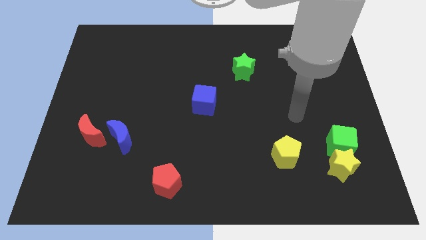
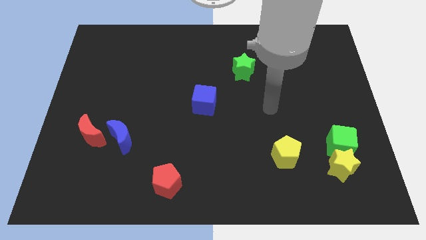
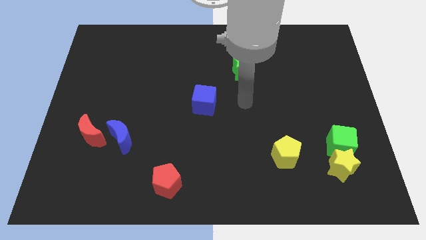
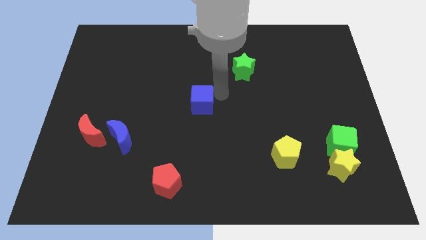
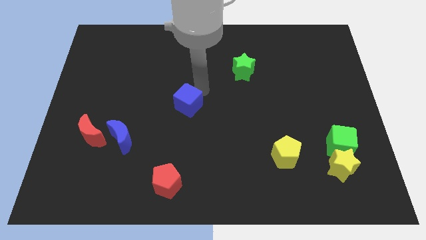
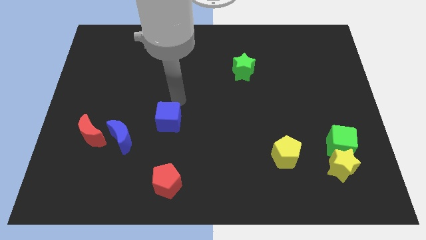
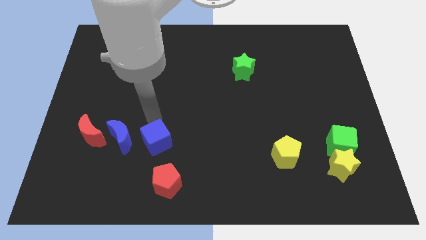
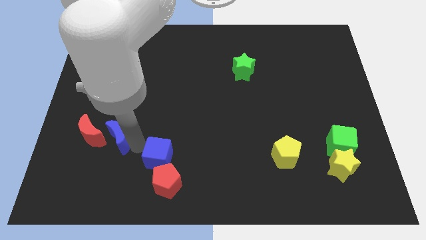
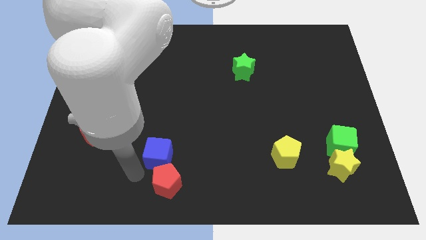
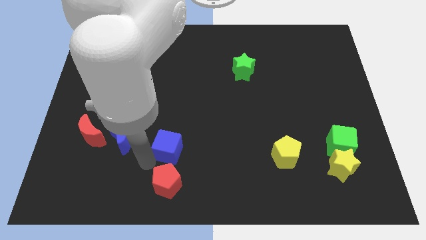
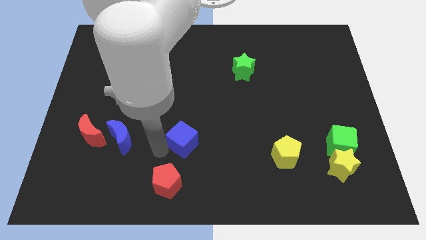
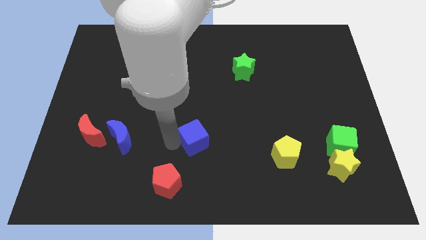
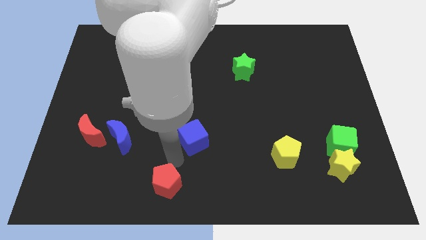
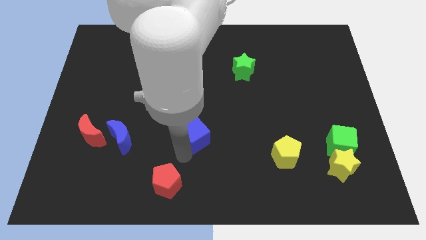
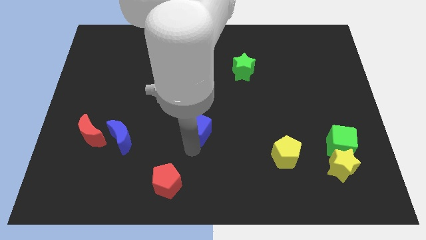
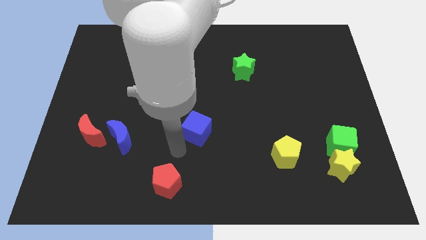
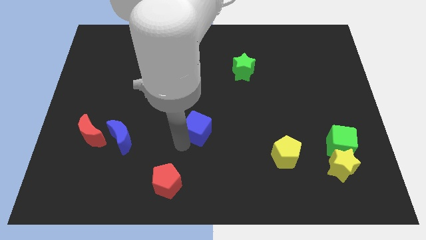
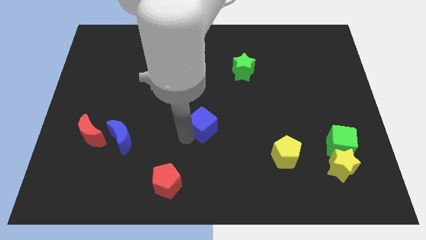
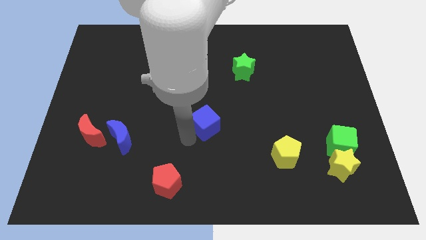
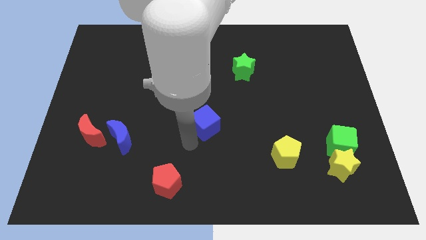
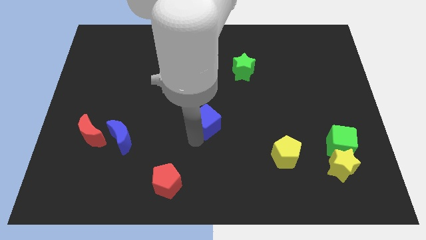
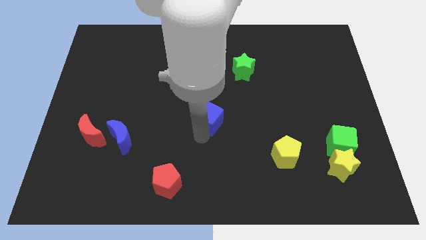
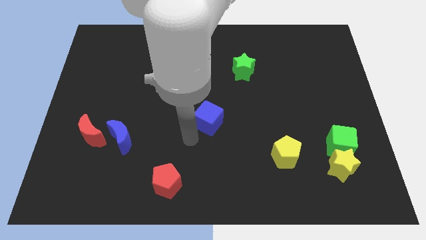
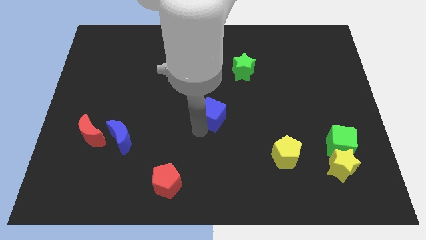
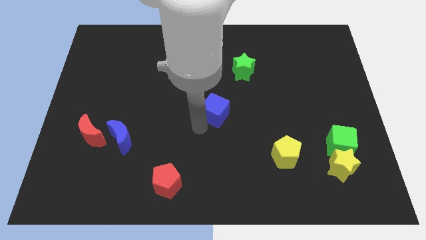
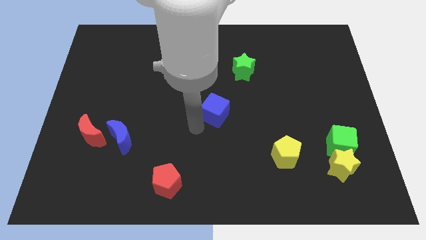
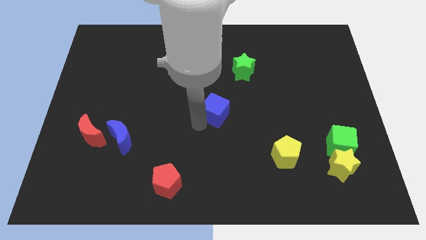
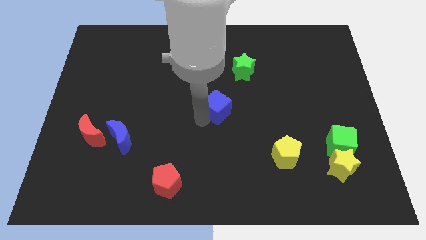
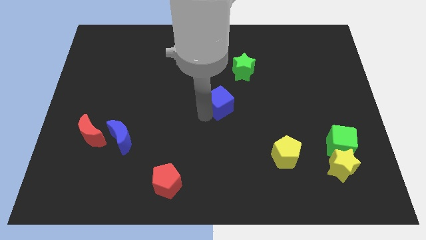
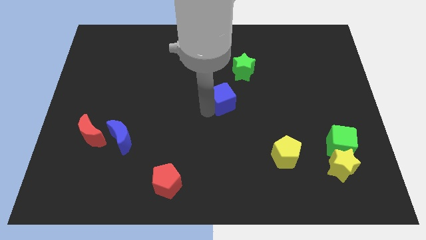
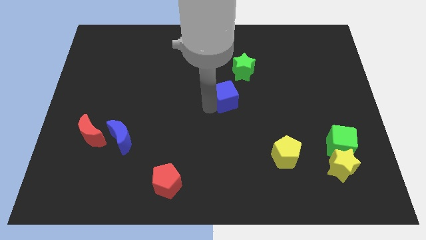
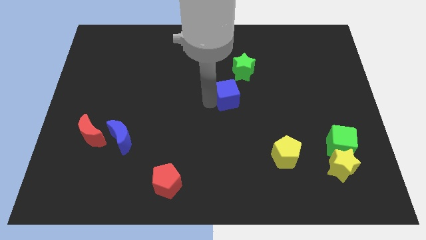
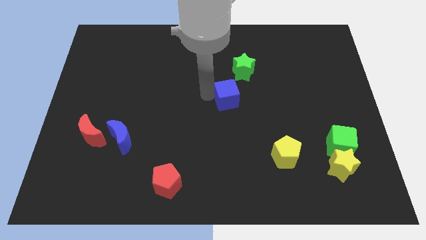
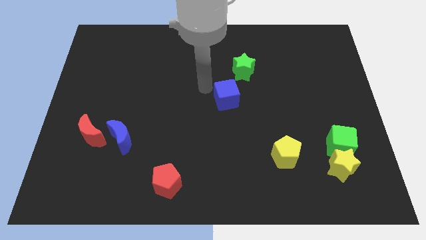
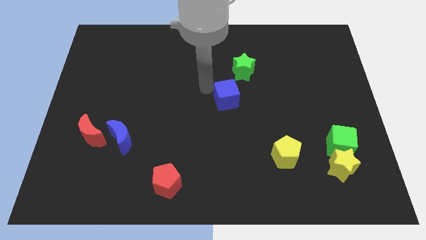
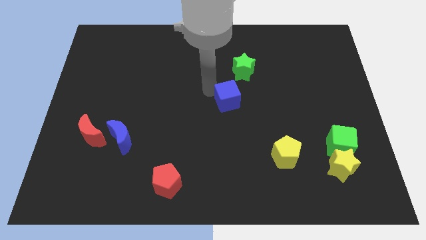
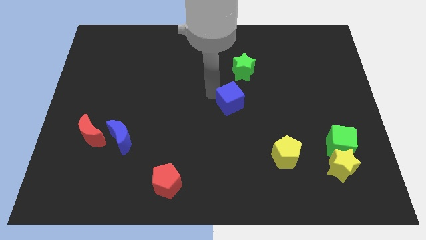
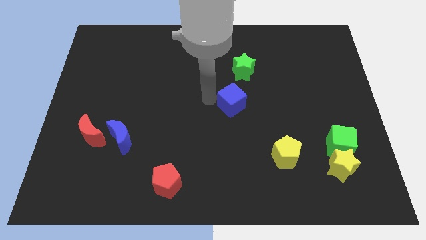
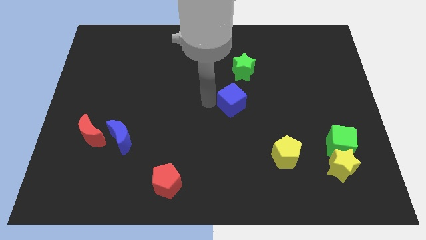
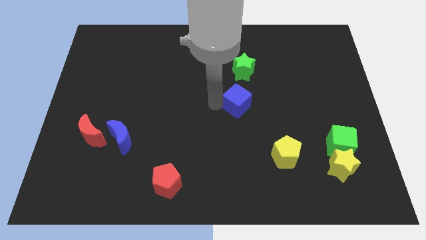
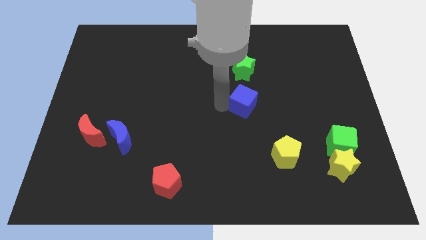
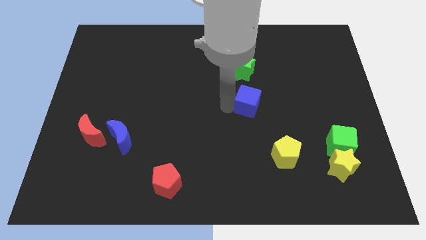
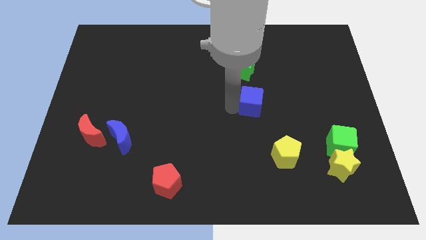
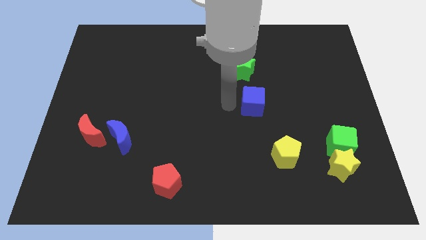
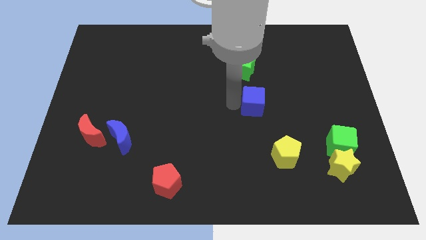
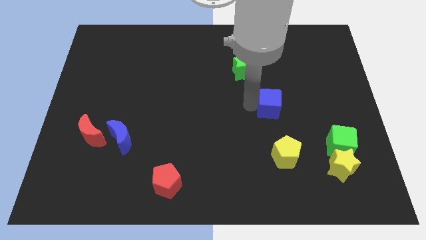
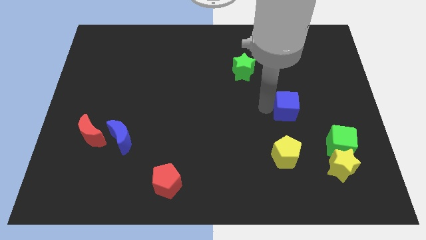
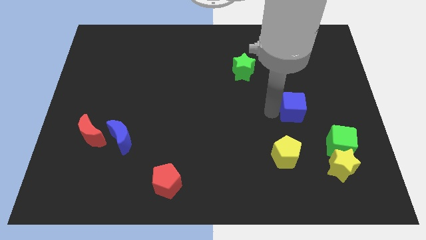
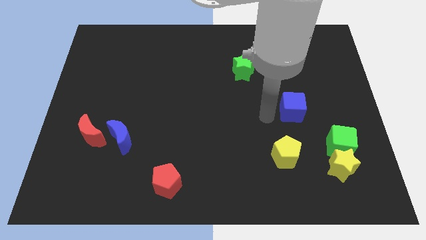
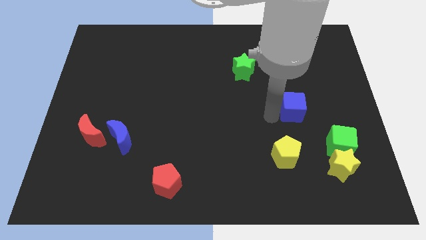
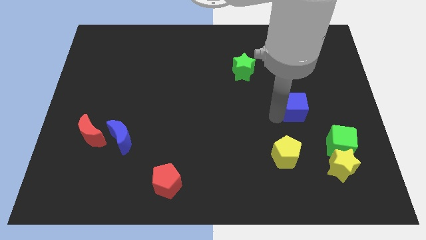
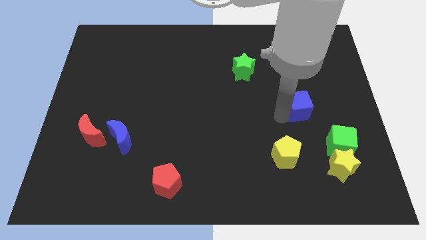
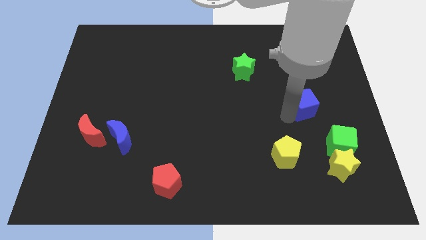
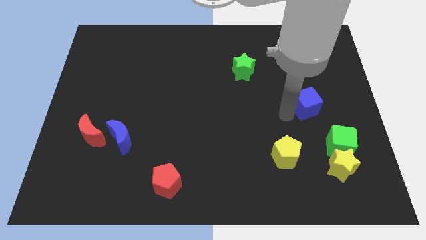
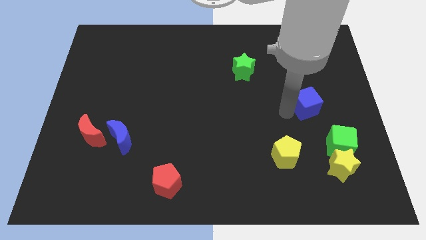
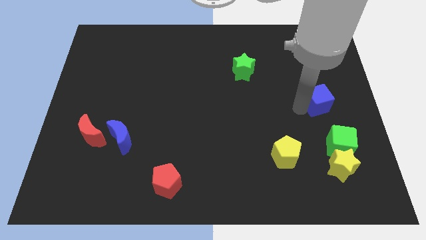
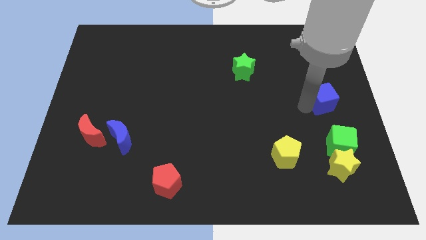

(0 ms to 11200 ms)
push the blue cube to the center right

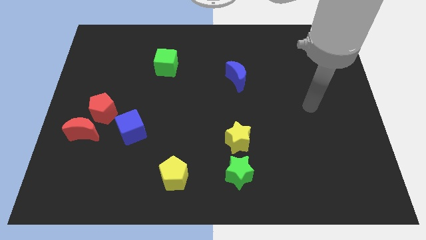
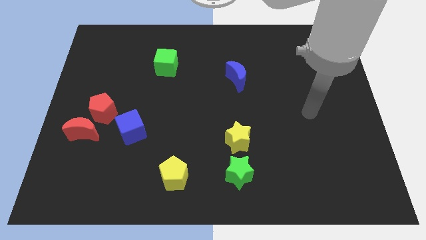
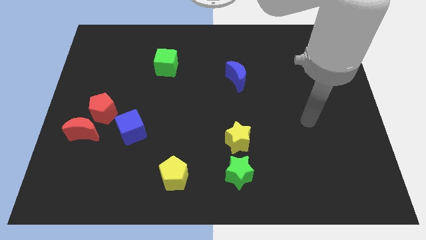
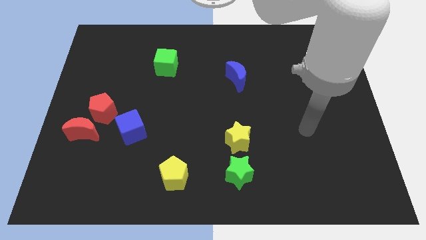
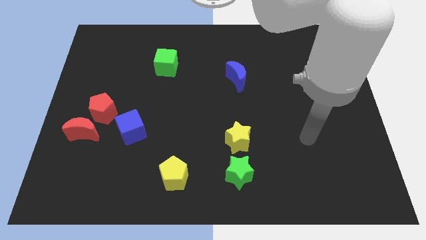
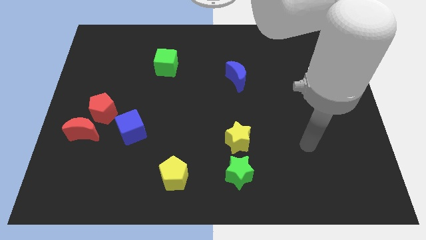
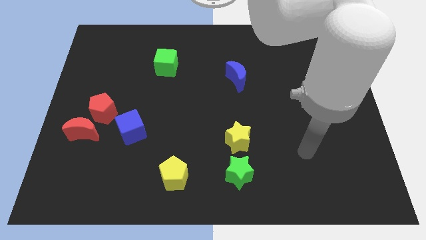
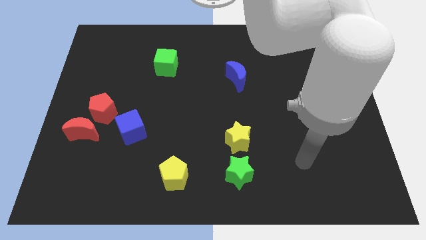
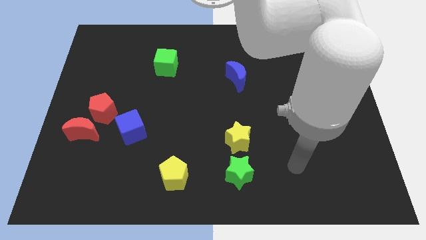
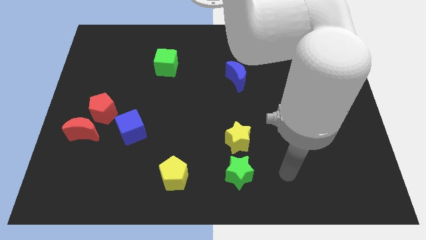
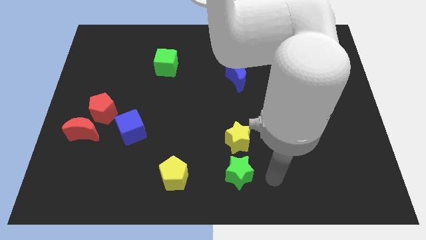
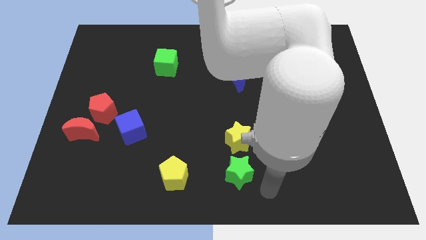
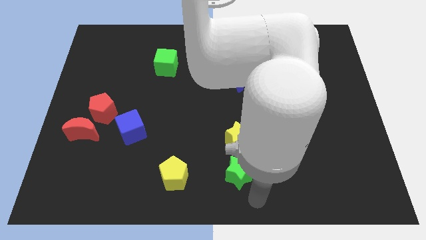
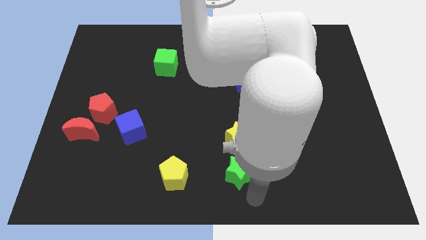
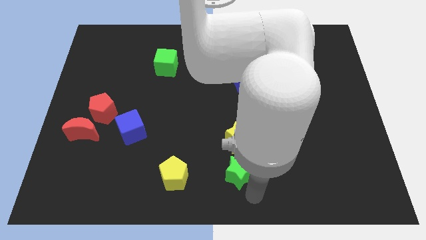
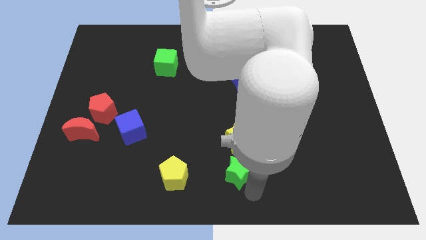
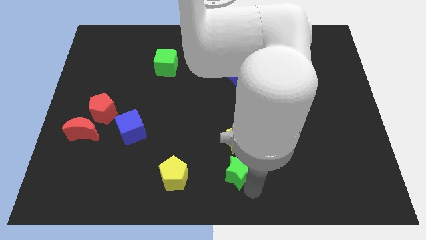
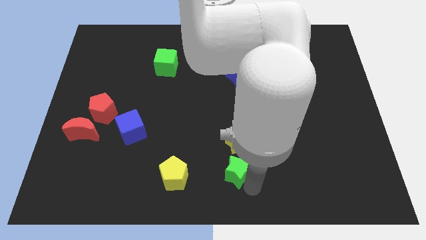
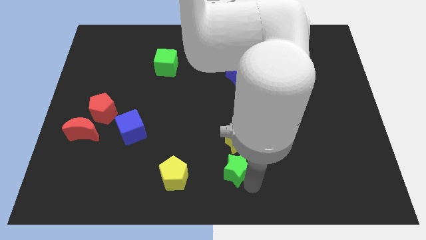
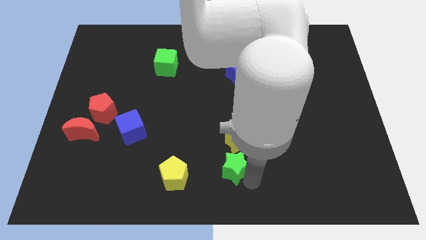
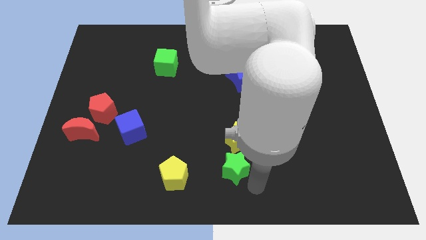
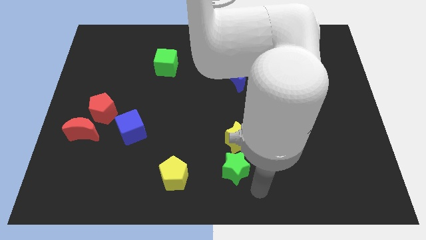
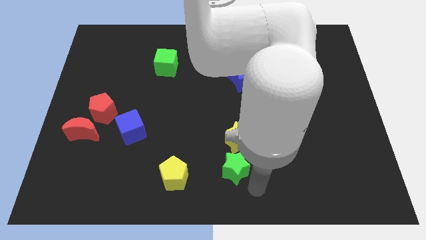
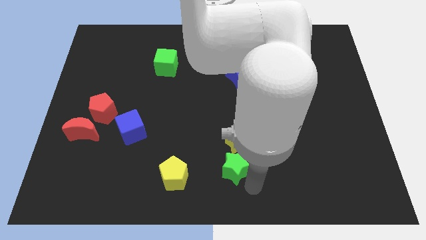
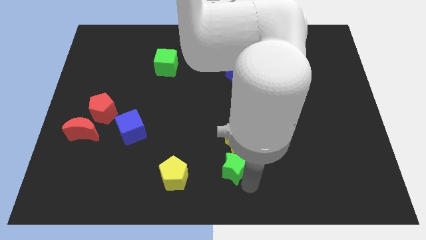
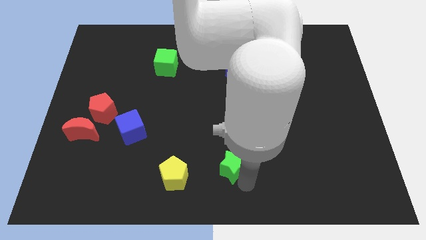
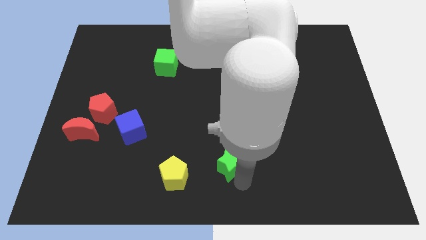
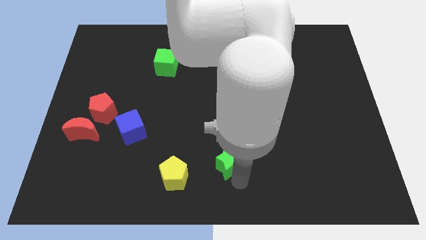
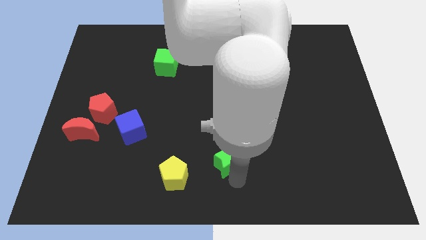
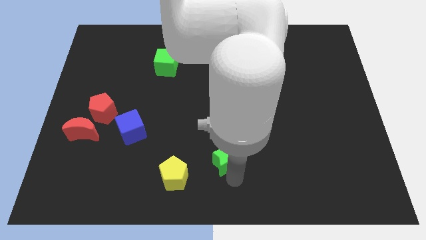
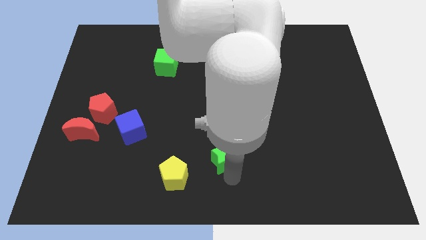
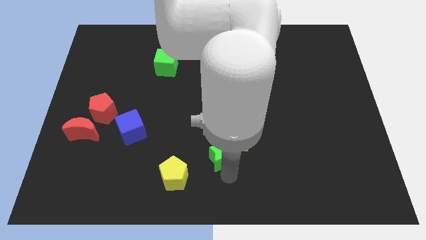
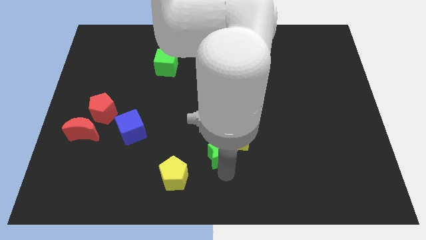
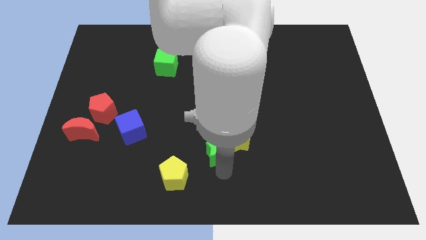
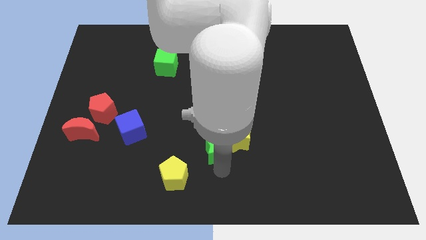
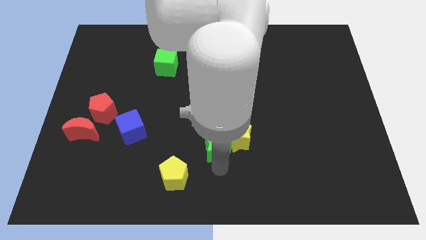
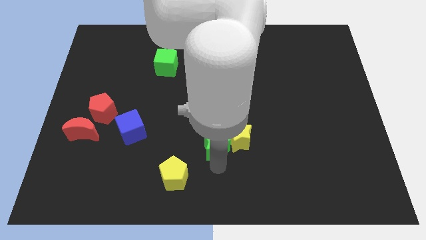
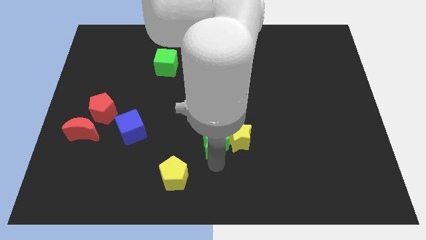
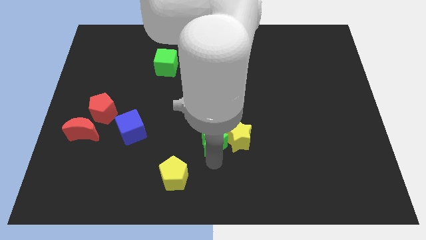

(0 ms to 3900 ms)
slide the green star to the center of the board
